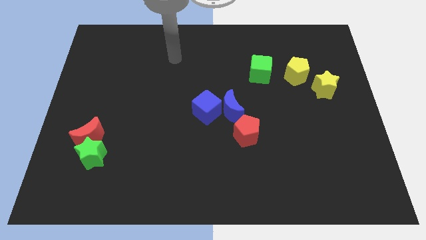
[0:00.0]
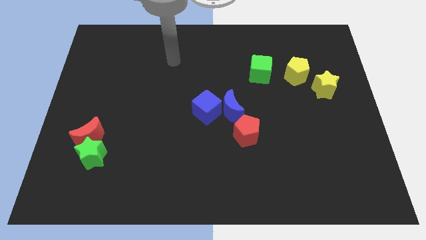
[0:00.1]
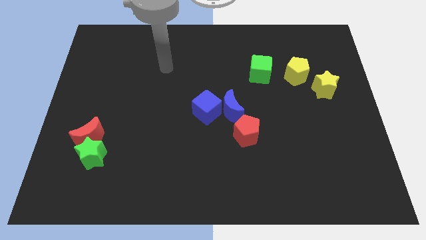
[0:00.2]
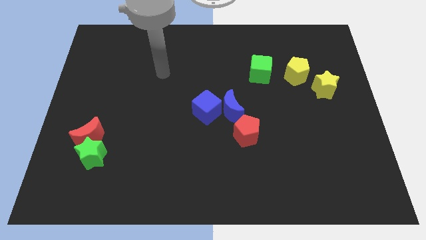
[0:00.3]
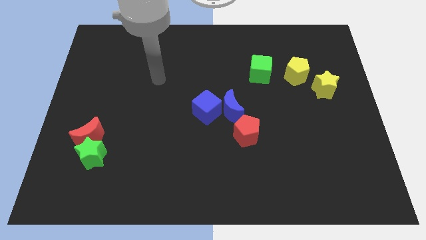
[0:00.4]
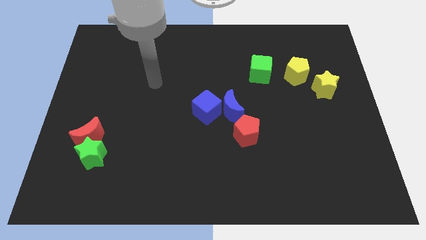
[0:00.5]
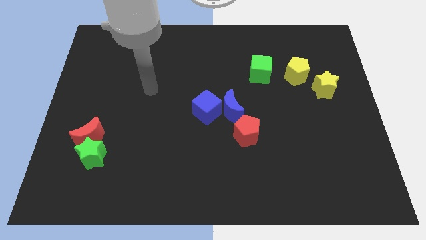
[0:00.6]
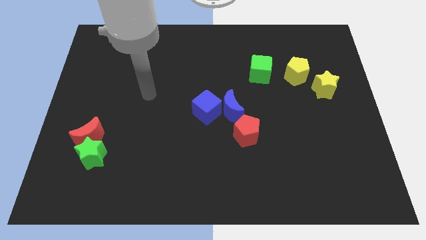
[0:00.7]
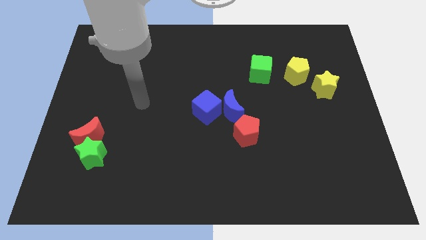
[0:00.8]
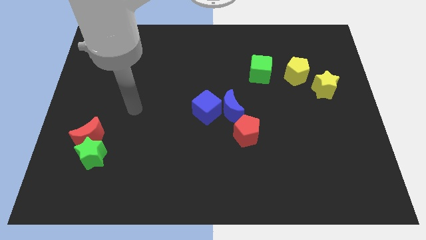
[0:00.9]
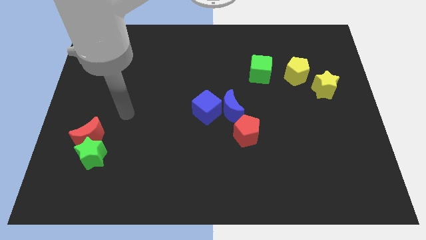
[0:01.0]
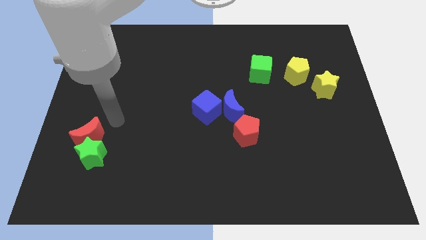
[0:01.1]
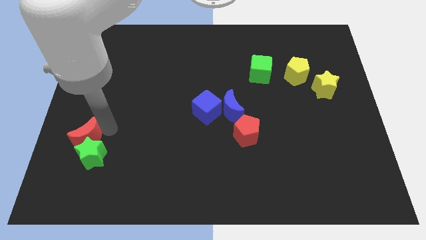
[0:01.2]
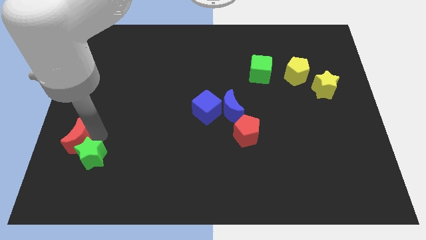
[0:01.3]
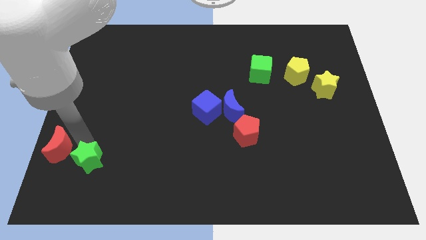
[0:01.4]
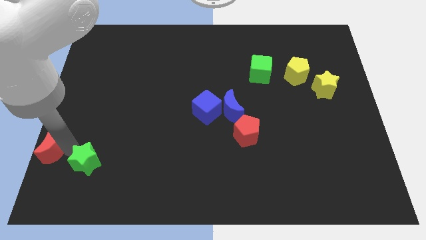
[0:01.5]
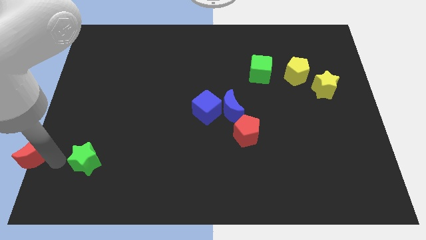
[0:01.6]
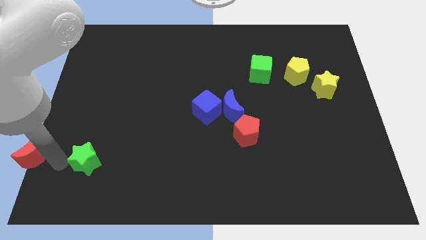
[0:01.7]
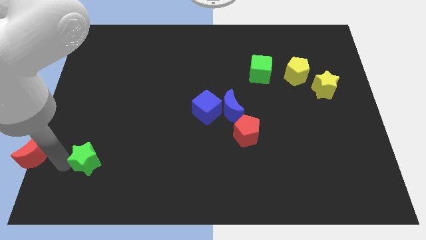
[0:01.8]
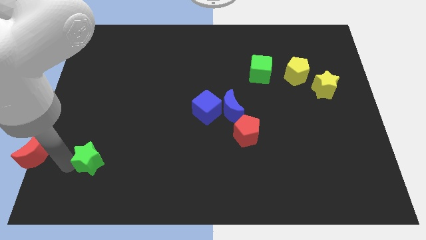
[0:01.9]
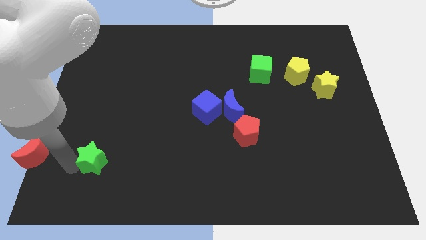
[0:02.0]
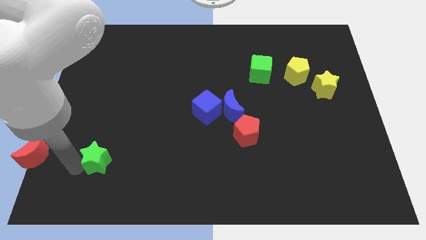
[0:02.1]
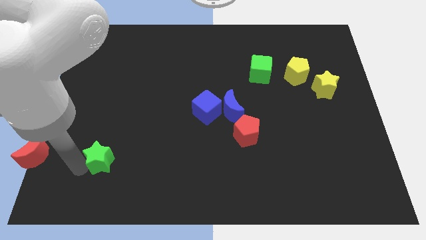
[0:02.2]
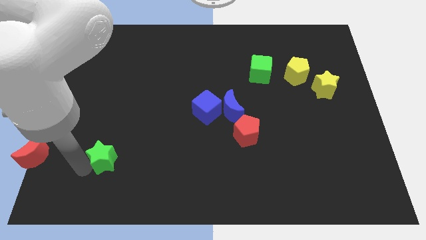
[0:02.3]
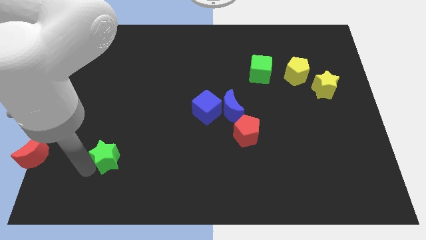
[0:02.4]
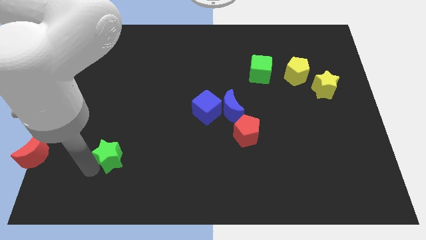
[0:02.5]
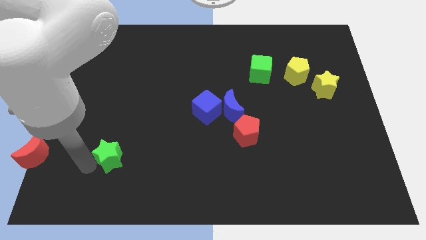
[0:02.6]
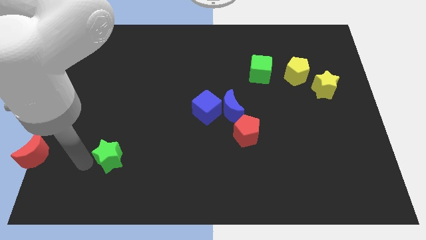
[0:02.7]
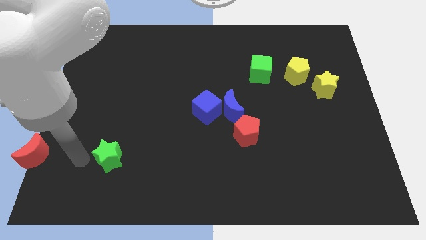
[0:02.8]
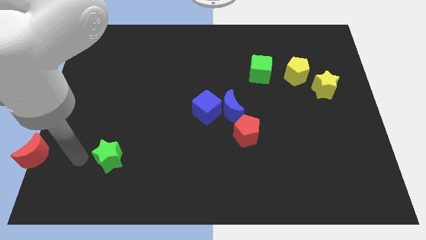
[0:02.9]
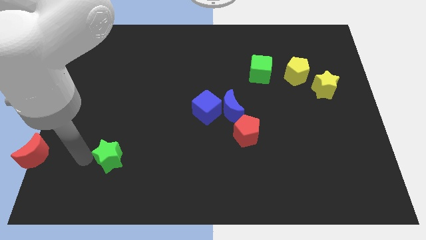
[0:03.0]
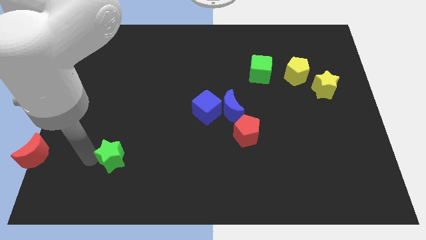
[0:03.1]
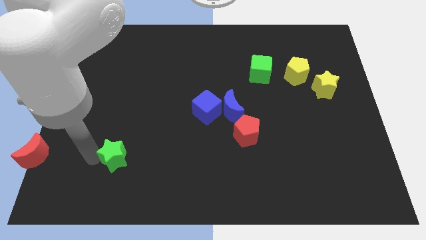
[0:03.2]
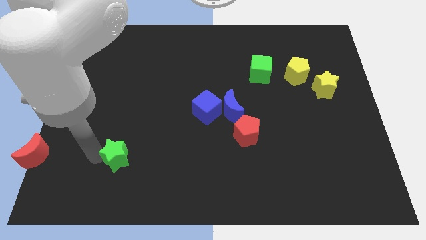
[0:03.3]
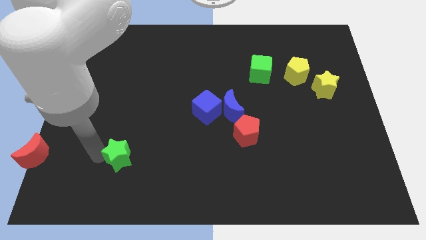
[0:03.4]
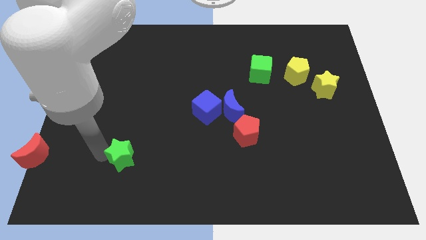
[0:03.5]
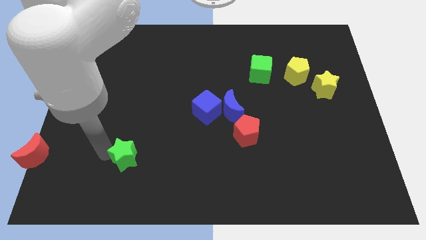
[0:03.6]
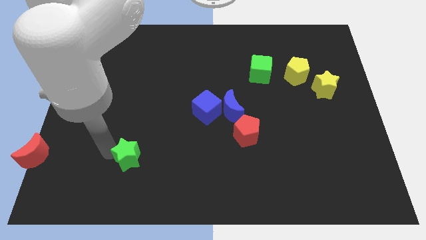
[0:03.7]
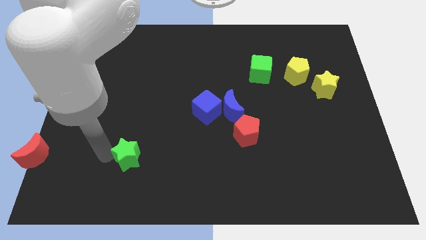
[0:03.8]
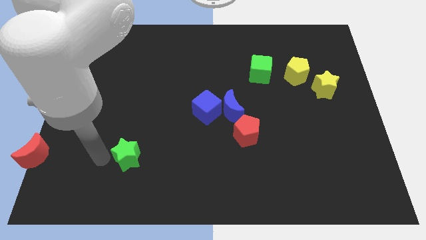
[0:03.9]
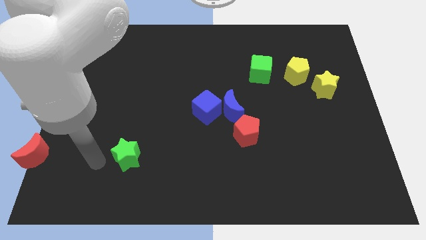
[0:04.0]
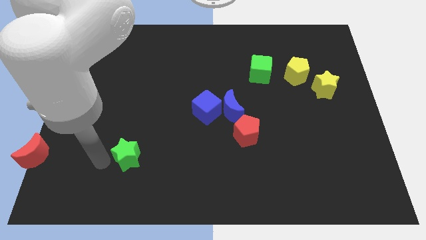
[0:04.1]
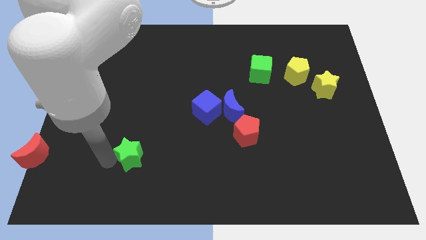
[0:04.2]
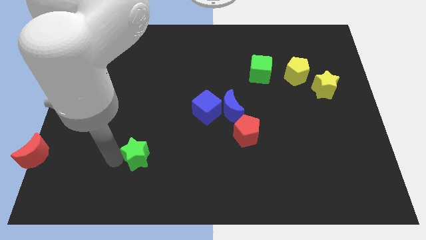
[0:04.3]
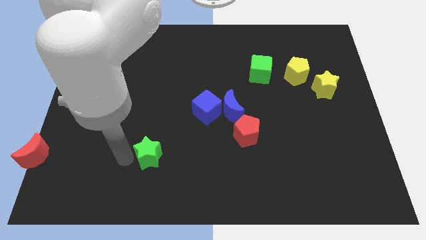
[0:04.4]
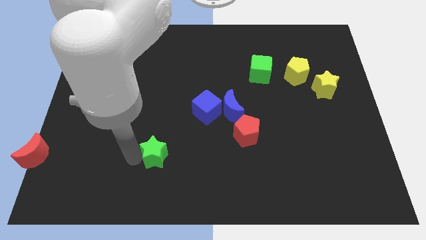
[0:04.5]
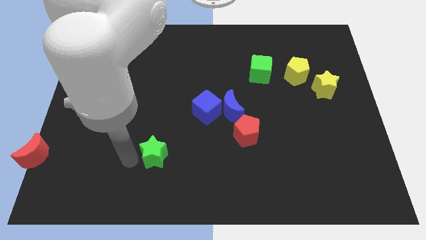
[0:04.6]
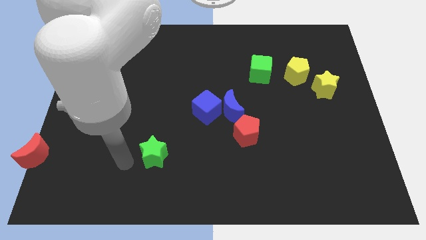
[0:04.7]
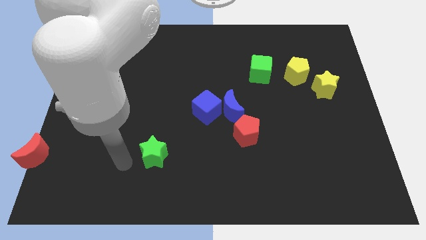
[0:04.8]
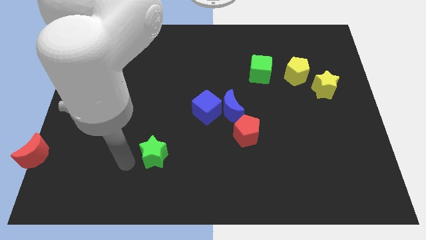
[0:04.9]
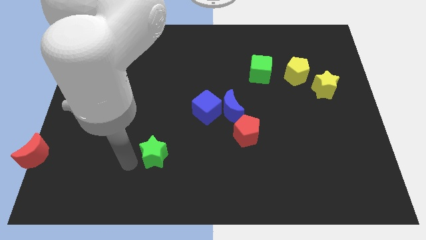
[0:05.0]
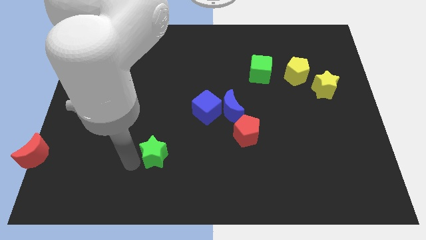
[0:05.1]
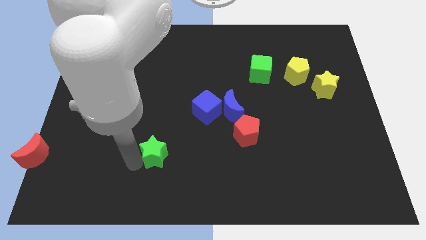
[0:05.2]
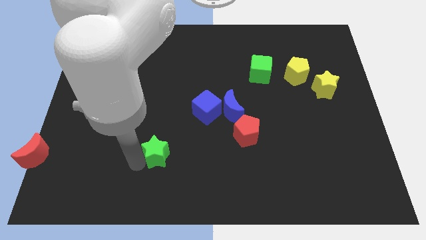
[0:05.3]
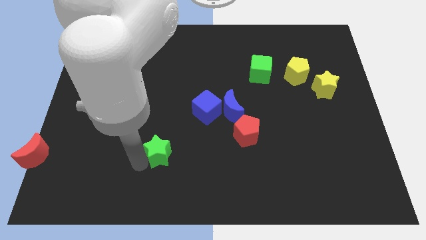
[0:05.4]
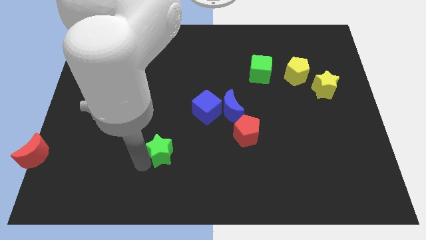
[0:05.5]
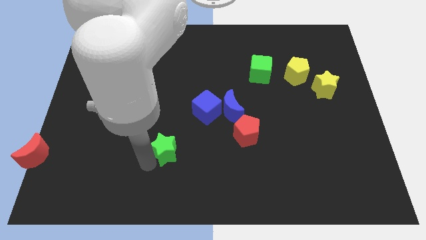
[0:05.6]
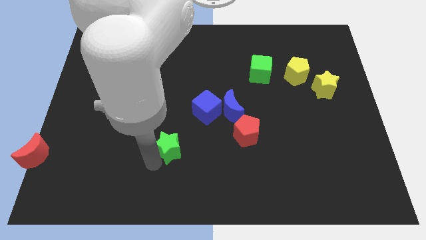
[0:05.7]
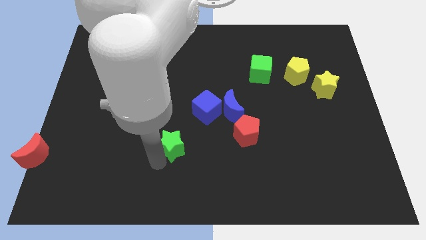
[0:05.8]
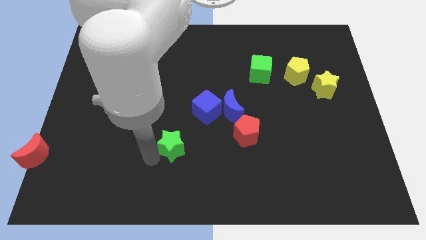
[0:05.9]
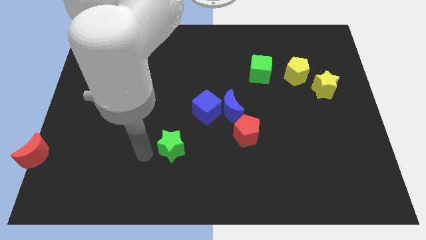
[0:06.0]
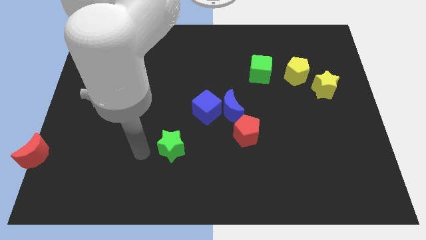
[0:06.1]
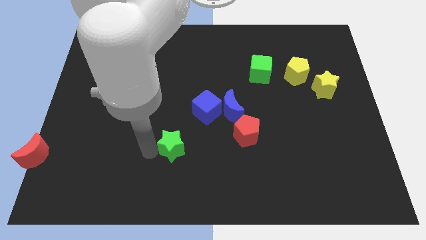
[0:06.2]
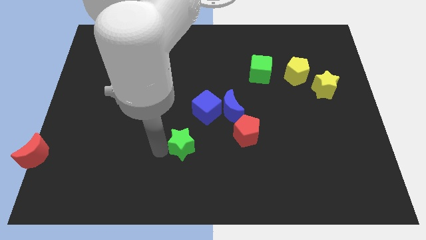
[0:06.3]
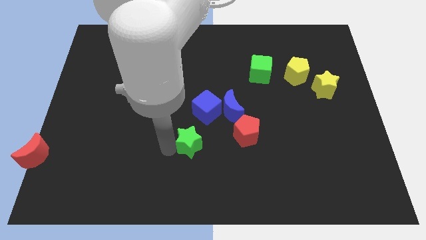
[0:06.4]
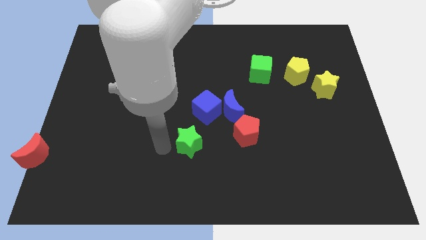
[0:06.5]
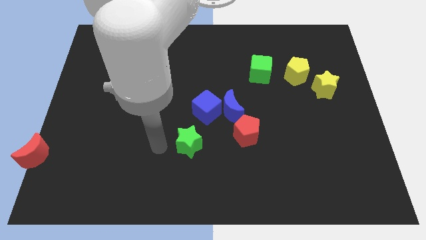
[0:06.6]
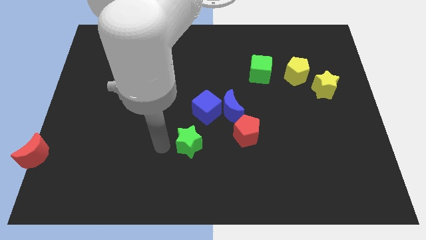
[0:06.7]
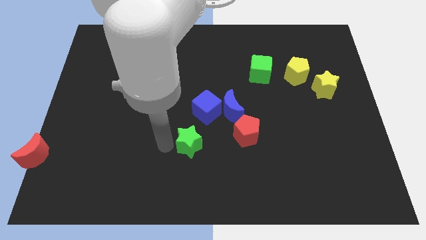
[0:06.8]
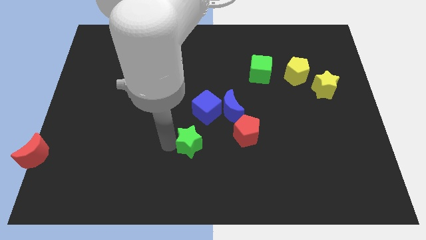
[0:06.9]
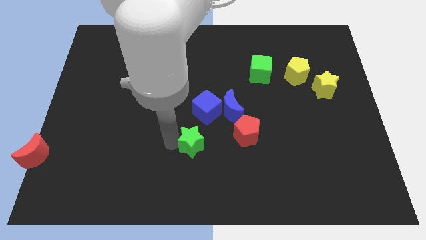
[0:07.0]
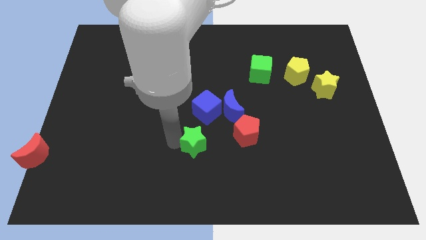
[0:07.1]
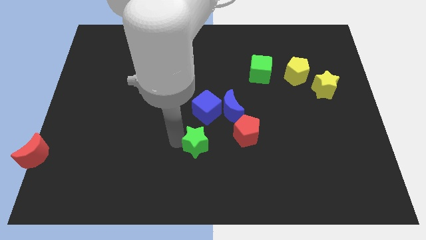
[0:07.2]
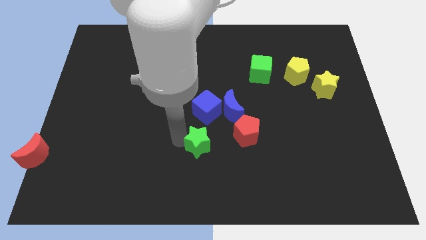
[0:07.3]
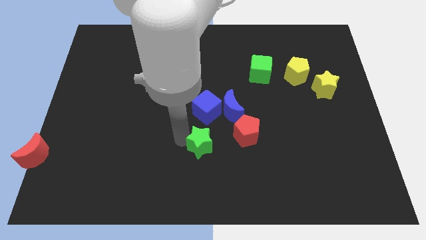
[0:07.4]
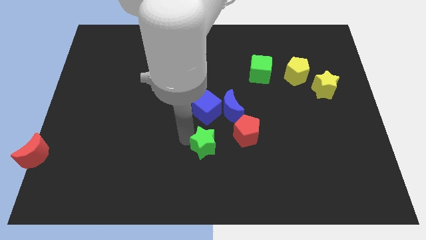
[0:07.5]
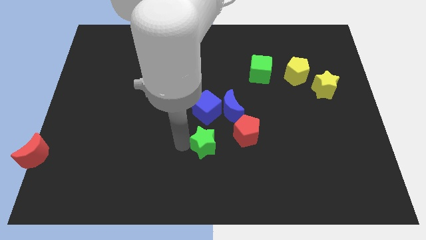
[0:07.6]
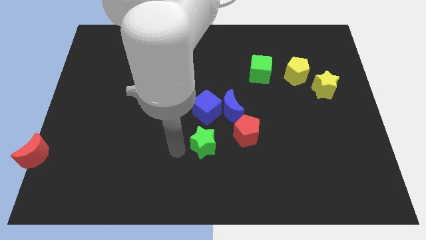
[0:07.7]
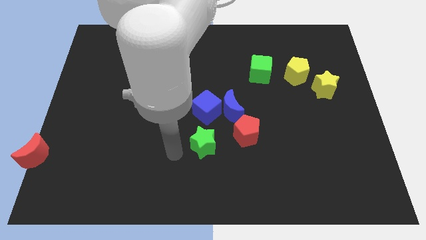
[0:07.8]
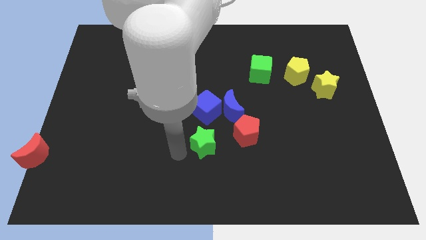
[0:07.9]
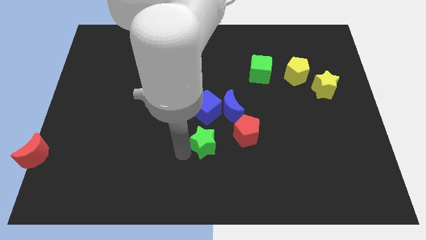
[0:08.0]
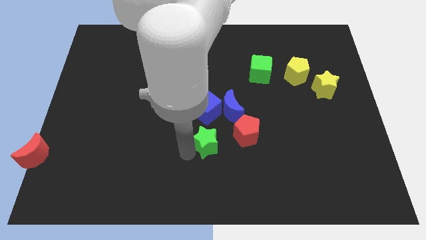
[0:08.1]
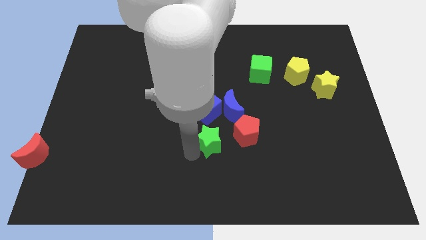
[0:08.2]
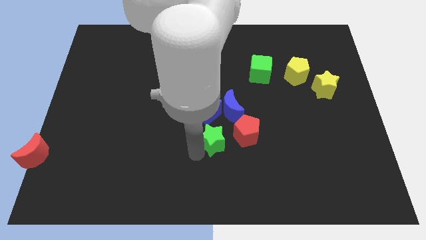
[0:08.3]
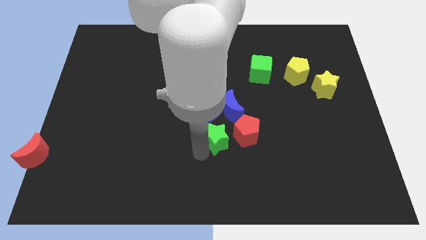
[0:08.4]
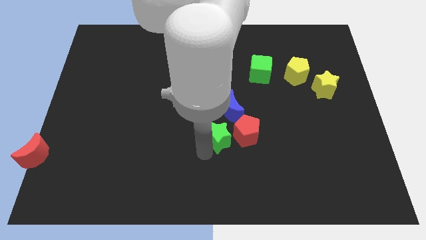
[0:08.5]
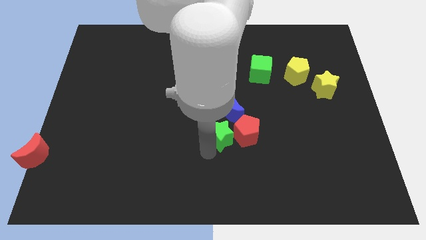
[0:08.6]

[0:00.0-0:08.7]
move the green star next to the red pentagon

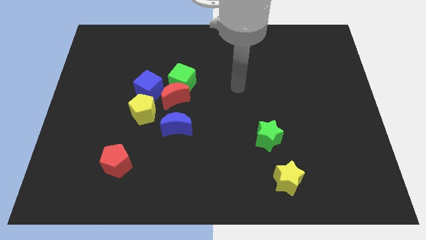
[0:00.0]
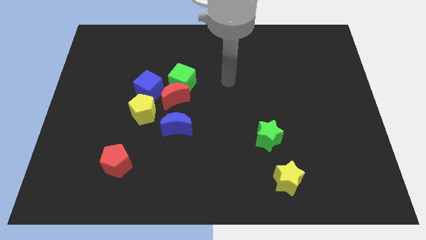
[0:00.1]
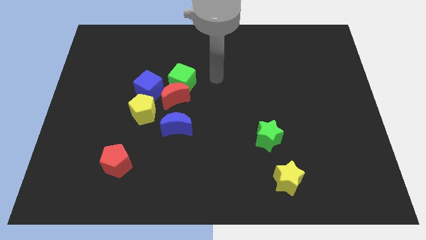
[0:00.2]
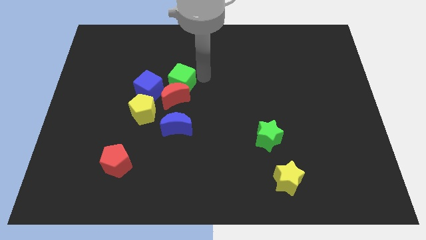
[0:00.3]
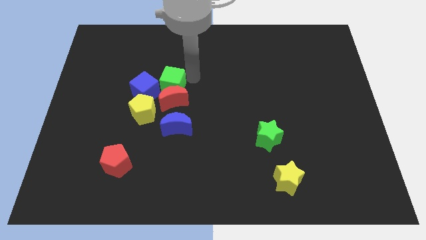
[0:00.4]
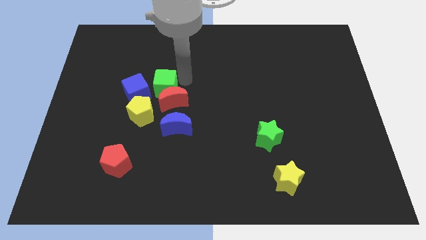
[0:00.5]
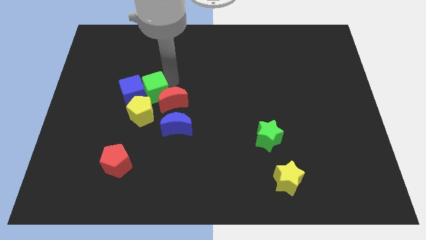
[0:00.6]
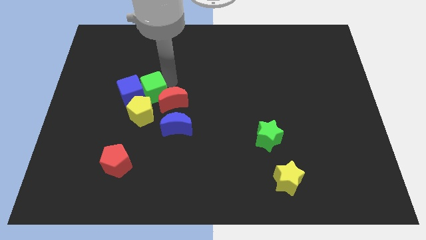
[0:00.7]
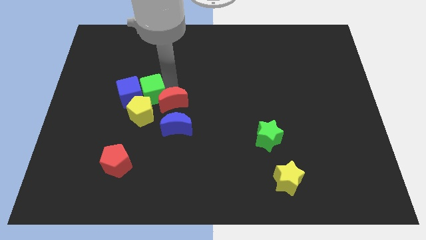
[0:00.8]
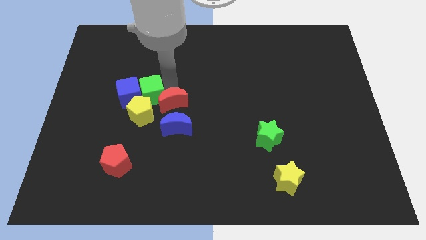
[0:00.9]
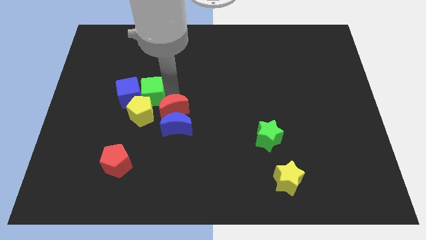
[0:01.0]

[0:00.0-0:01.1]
slide the red moon next to the blue moon
